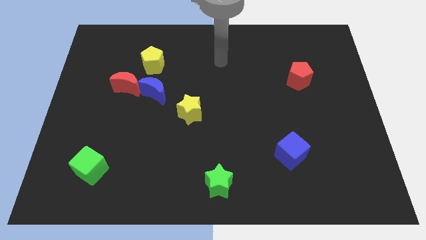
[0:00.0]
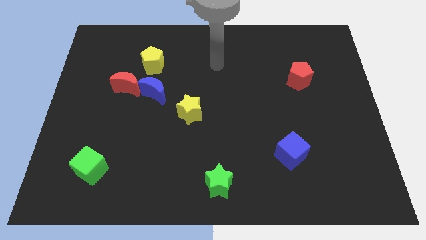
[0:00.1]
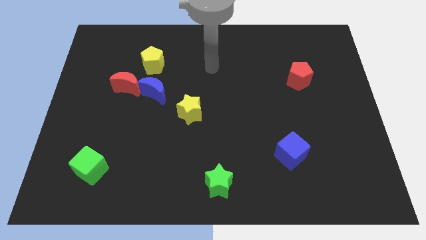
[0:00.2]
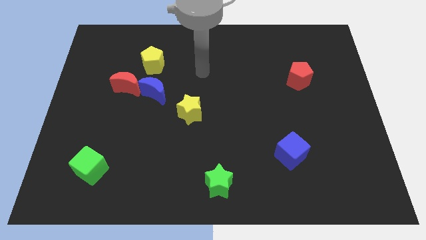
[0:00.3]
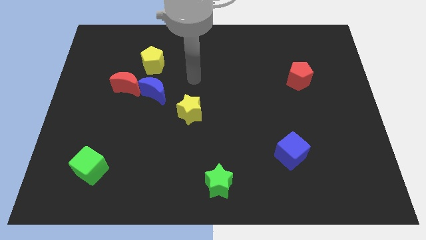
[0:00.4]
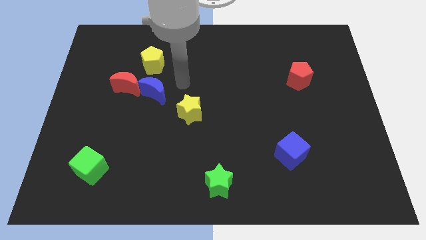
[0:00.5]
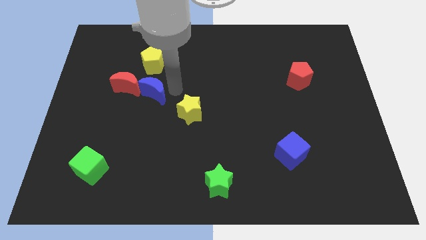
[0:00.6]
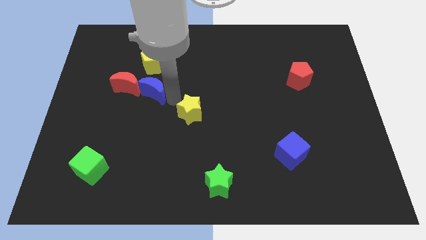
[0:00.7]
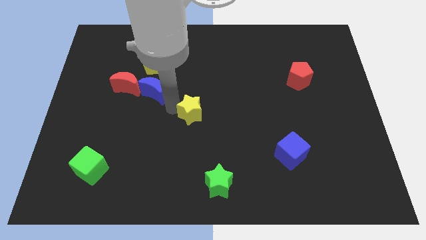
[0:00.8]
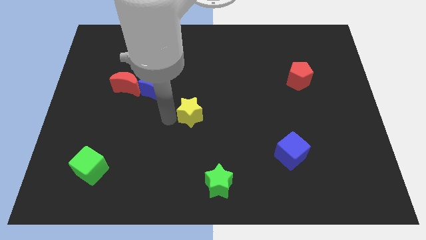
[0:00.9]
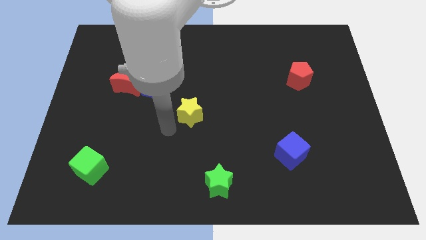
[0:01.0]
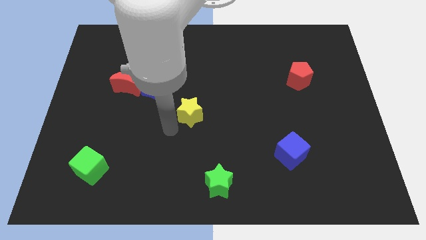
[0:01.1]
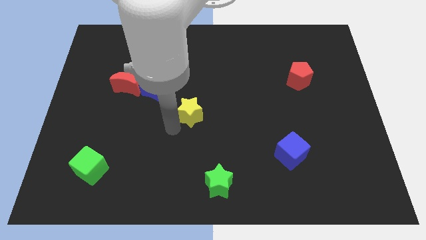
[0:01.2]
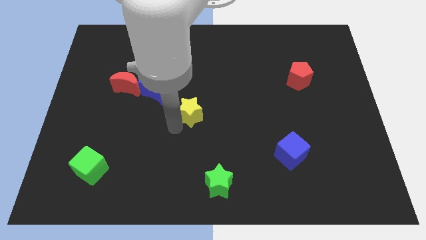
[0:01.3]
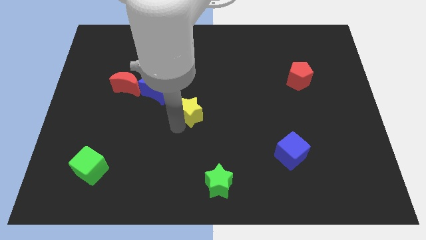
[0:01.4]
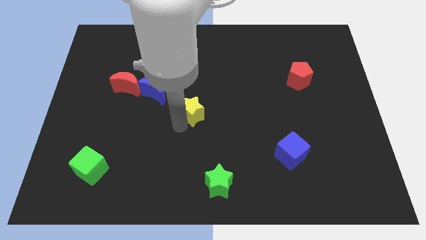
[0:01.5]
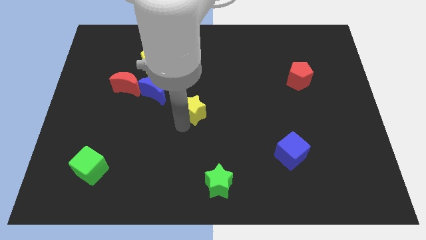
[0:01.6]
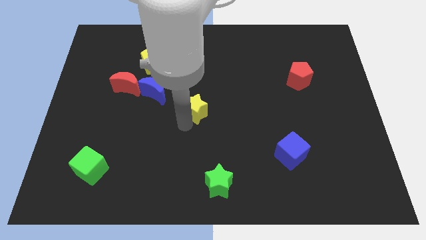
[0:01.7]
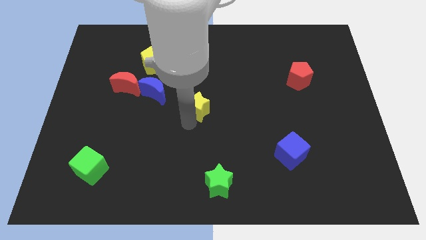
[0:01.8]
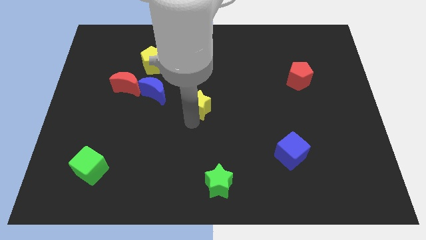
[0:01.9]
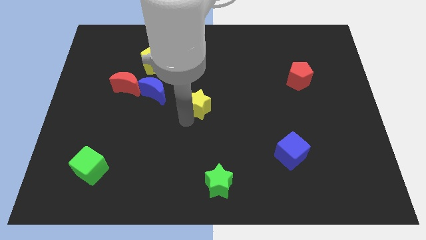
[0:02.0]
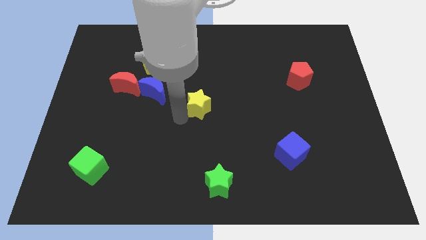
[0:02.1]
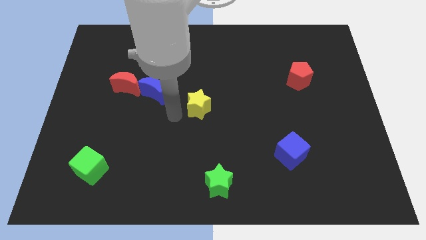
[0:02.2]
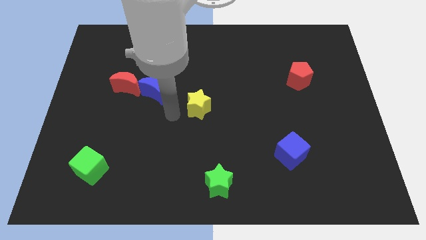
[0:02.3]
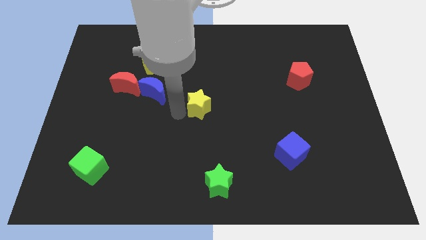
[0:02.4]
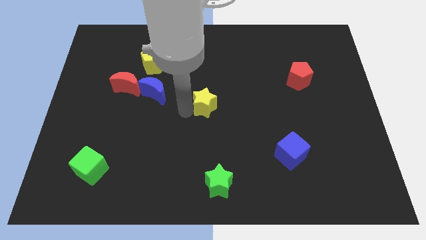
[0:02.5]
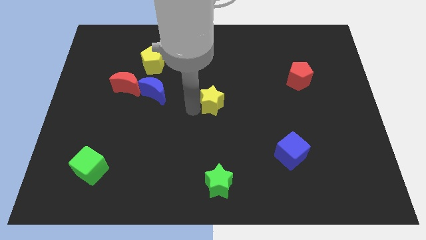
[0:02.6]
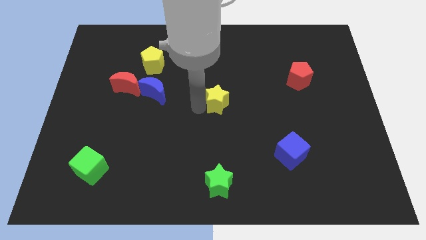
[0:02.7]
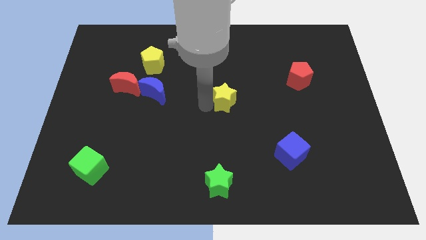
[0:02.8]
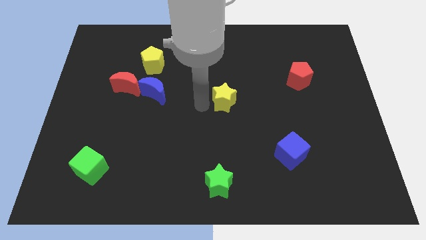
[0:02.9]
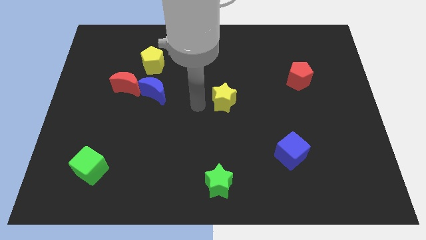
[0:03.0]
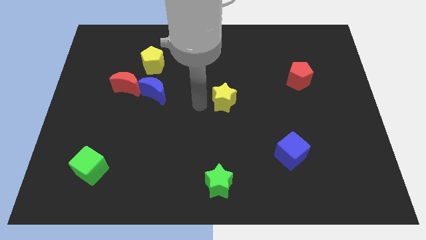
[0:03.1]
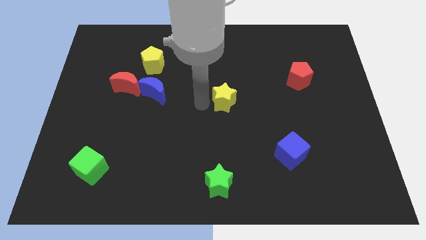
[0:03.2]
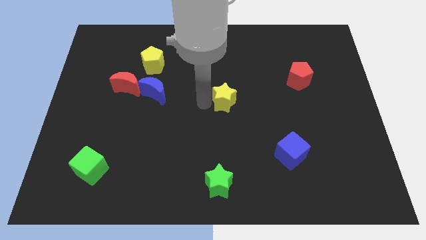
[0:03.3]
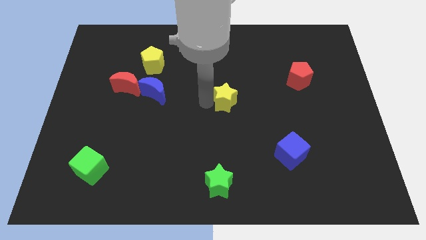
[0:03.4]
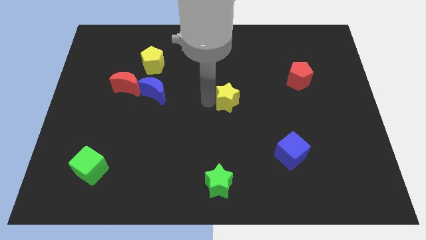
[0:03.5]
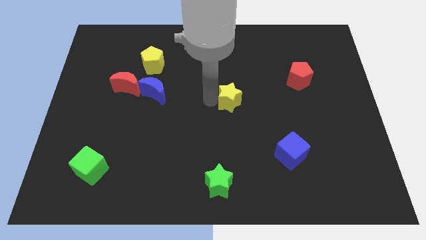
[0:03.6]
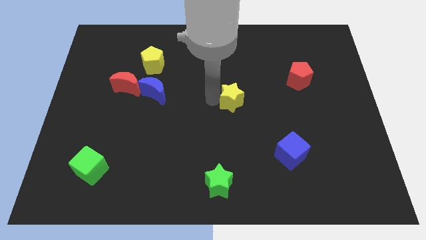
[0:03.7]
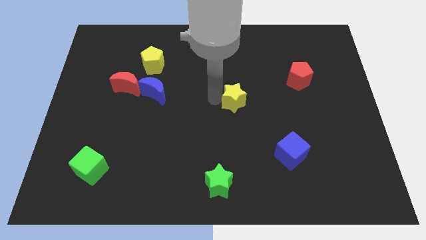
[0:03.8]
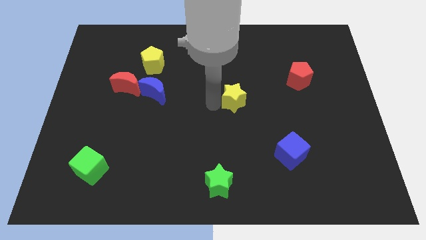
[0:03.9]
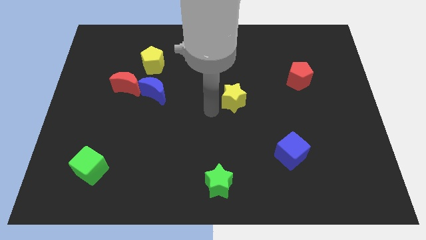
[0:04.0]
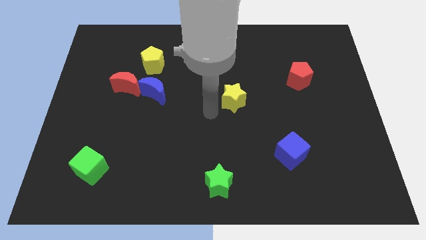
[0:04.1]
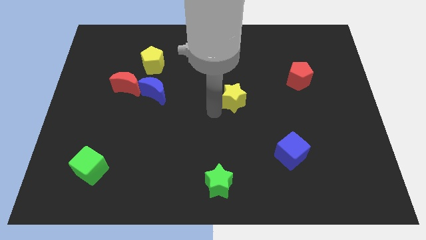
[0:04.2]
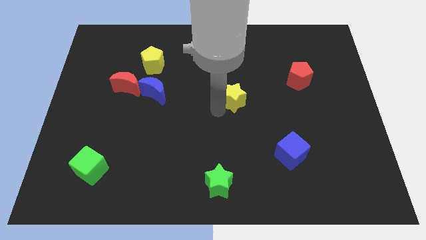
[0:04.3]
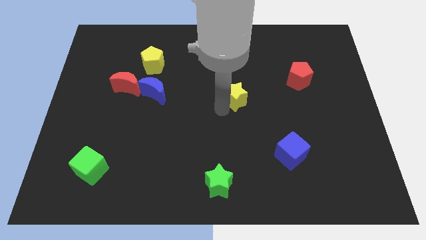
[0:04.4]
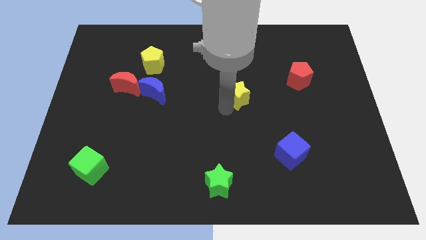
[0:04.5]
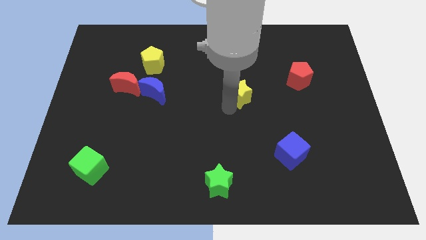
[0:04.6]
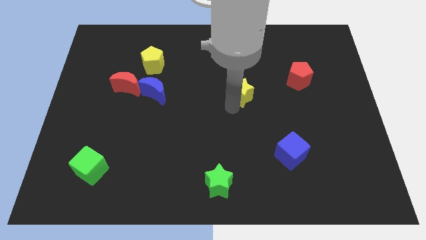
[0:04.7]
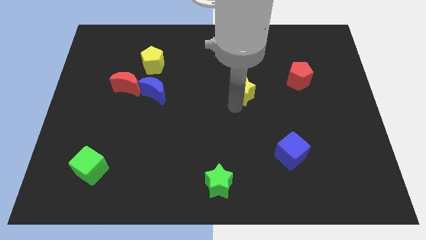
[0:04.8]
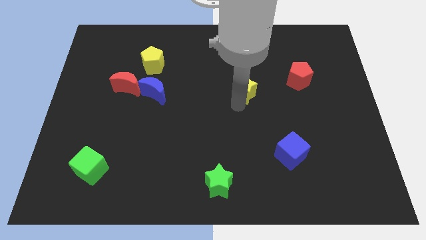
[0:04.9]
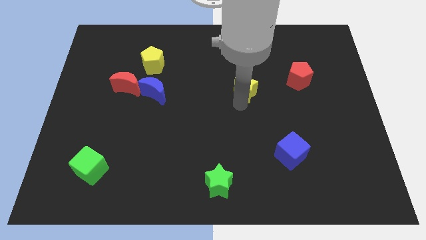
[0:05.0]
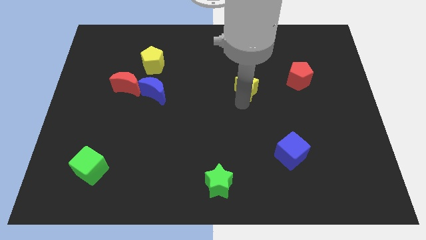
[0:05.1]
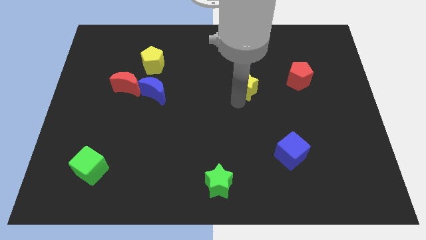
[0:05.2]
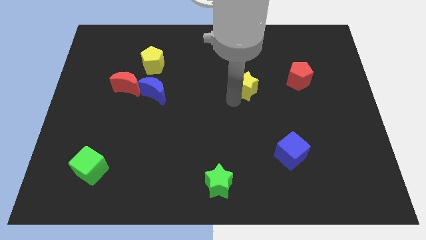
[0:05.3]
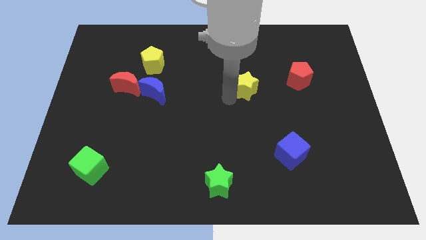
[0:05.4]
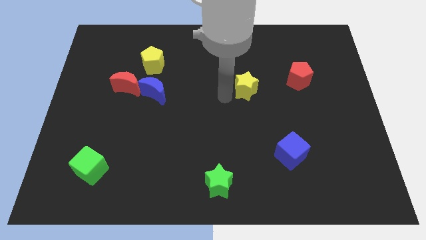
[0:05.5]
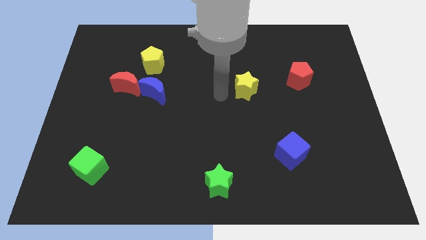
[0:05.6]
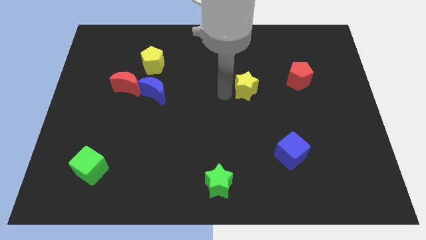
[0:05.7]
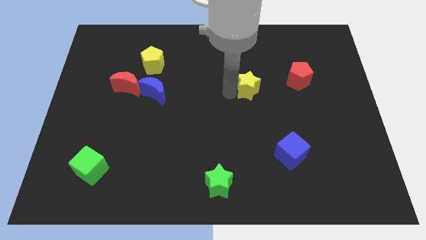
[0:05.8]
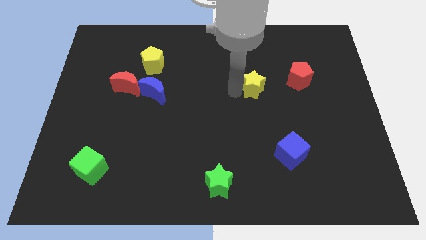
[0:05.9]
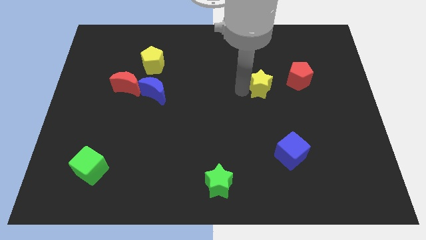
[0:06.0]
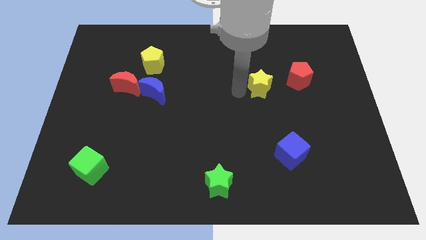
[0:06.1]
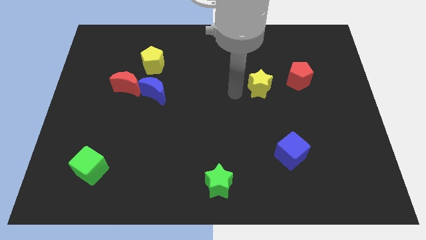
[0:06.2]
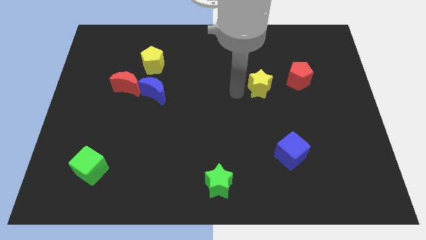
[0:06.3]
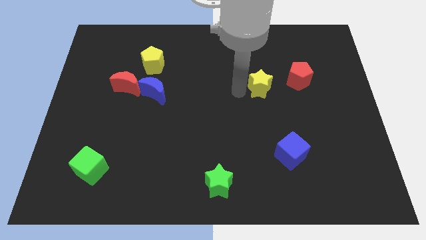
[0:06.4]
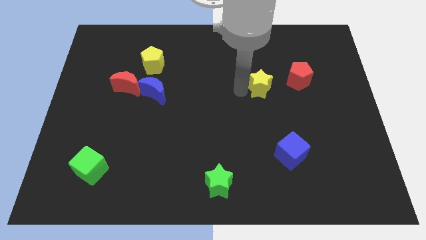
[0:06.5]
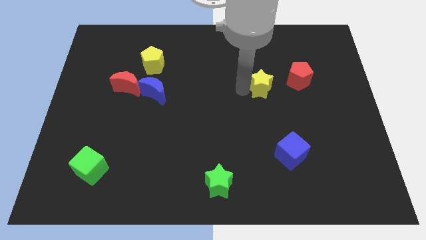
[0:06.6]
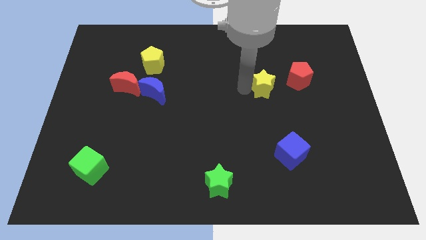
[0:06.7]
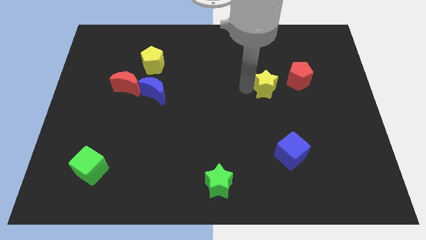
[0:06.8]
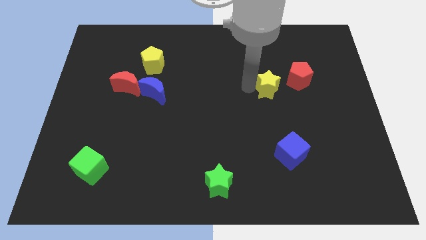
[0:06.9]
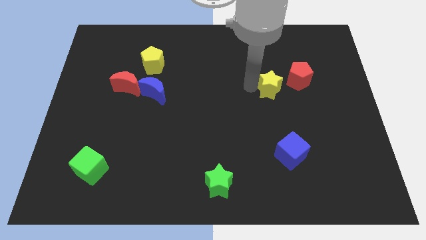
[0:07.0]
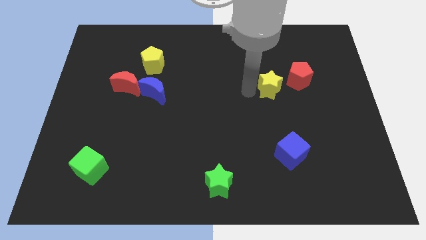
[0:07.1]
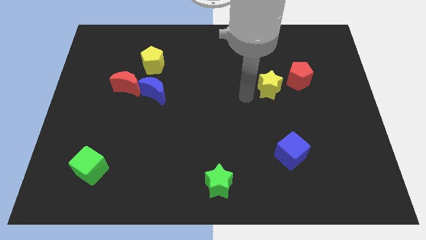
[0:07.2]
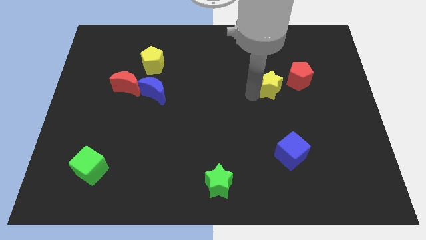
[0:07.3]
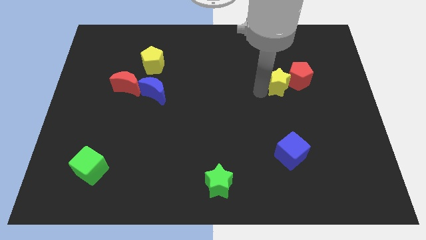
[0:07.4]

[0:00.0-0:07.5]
push the yellow star towards the red pentagon
